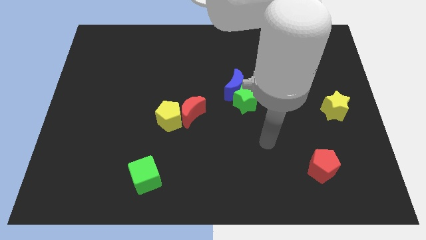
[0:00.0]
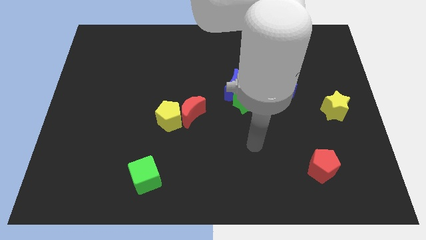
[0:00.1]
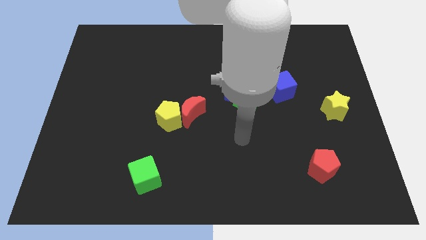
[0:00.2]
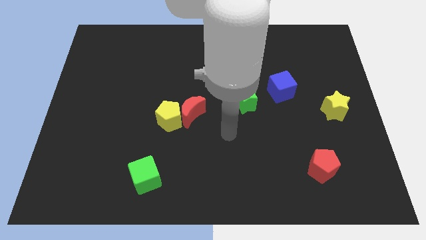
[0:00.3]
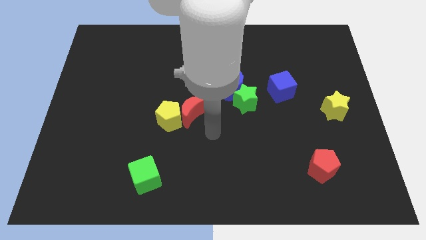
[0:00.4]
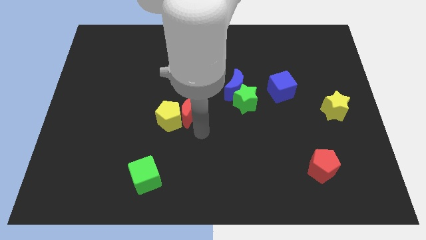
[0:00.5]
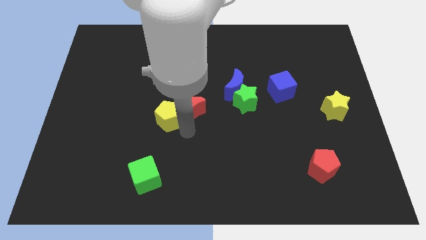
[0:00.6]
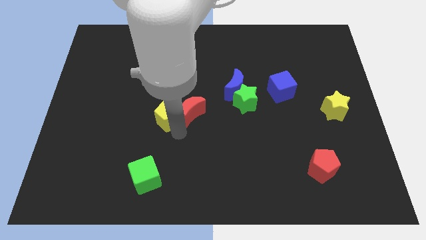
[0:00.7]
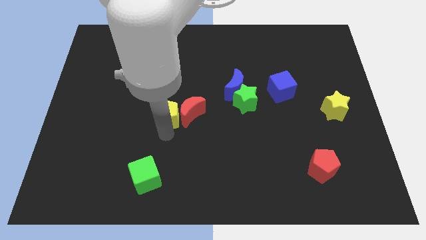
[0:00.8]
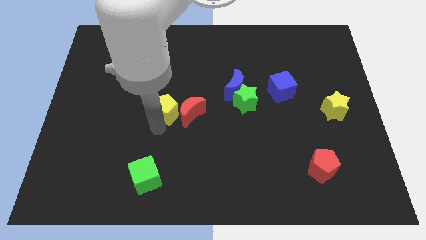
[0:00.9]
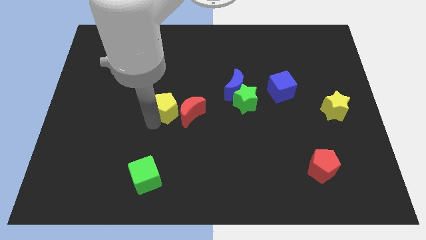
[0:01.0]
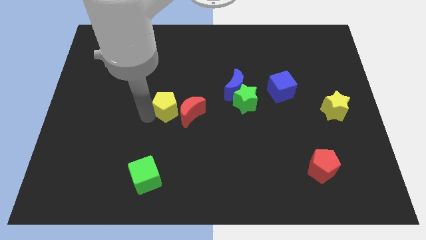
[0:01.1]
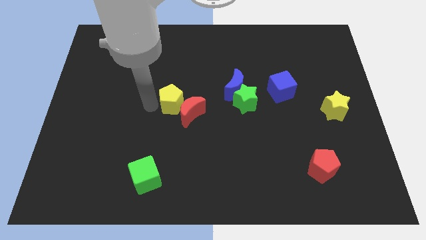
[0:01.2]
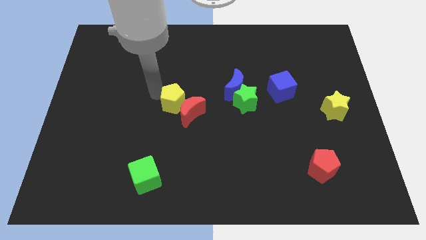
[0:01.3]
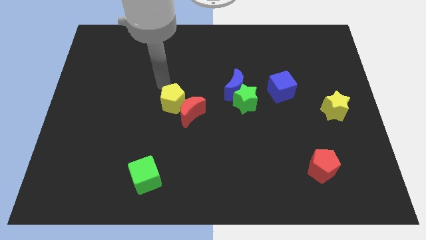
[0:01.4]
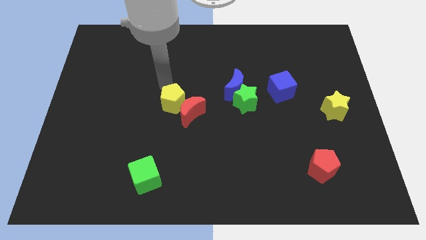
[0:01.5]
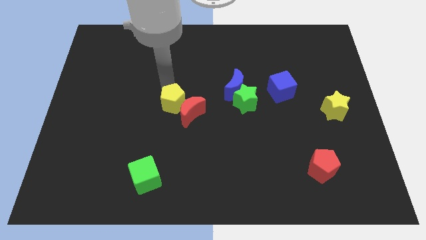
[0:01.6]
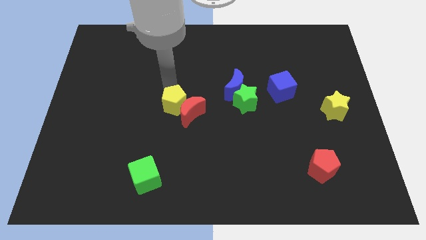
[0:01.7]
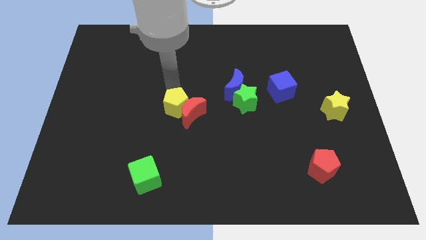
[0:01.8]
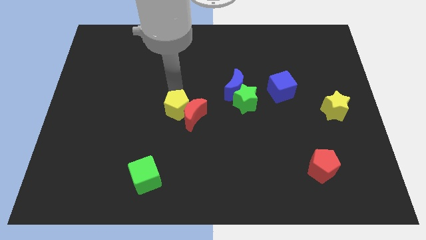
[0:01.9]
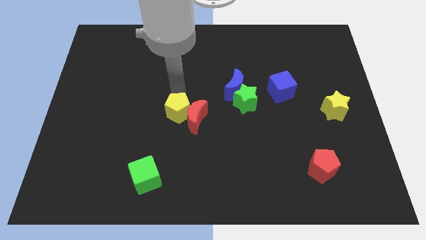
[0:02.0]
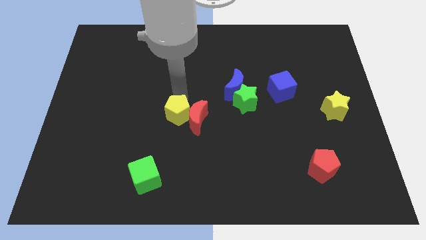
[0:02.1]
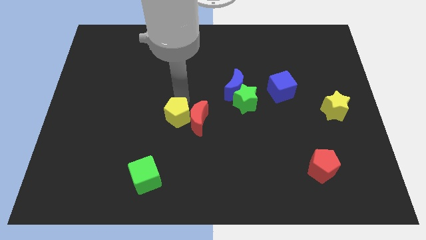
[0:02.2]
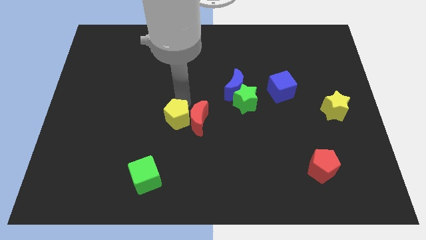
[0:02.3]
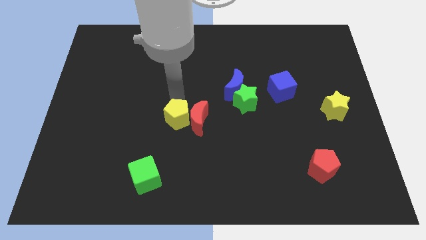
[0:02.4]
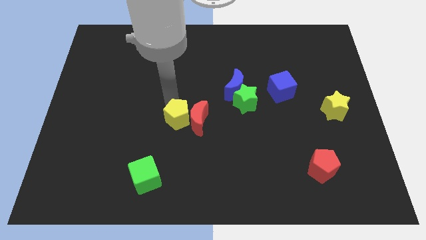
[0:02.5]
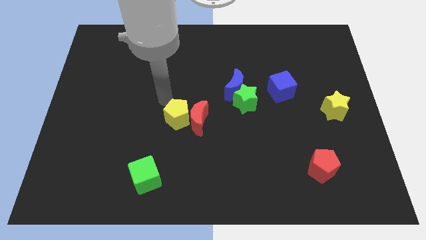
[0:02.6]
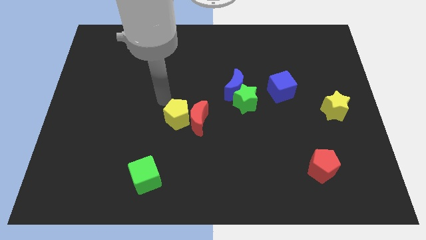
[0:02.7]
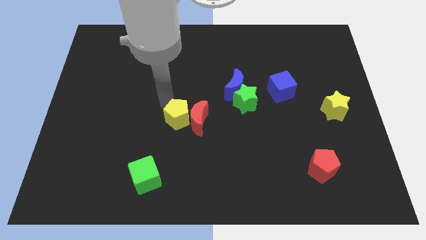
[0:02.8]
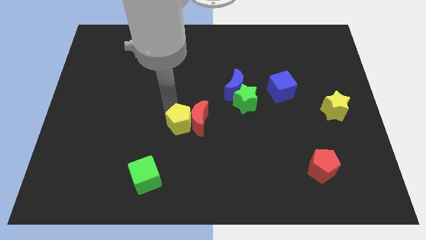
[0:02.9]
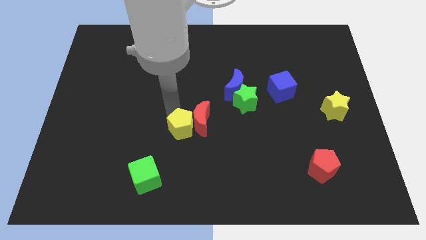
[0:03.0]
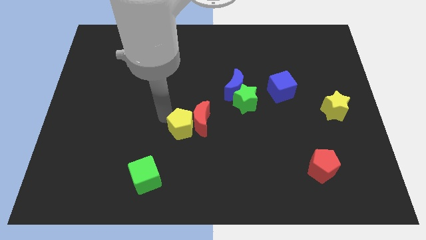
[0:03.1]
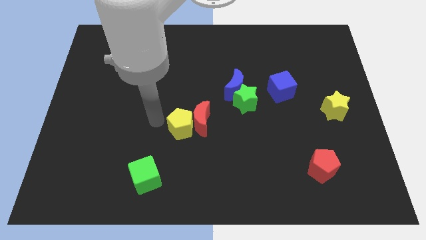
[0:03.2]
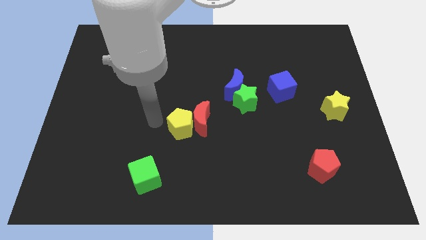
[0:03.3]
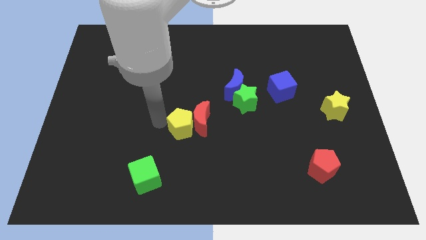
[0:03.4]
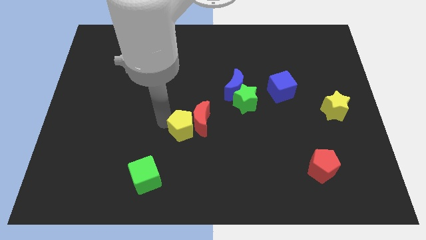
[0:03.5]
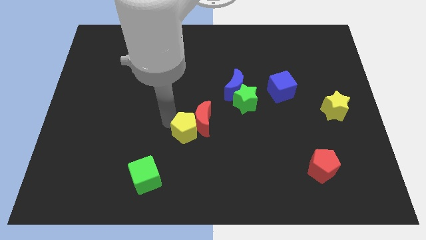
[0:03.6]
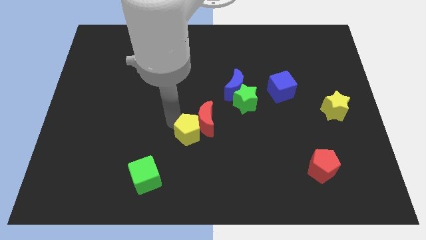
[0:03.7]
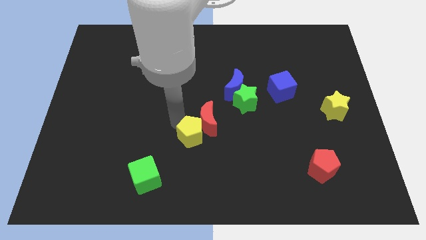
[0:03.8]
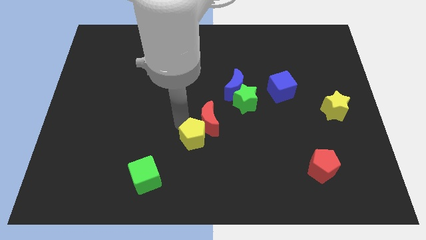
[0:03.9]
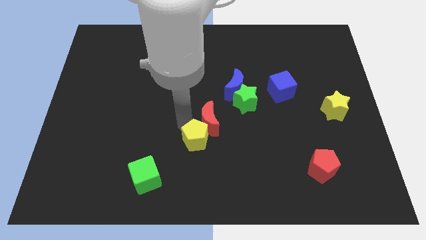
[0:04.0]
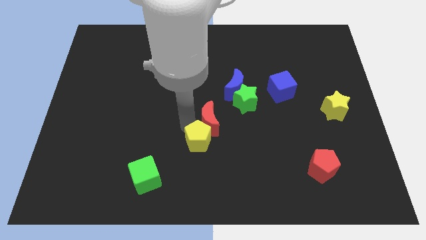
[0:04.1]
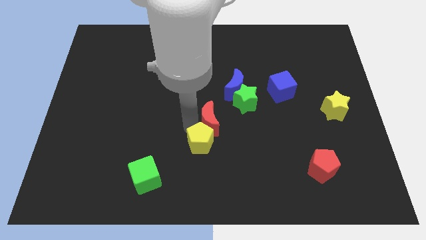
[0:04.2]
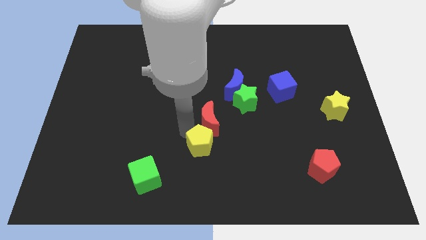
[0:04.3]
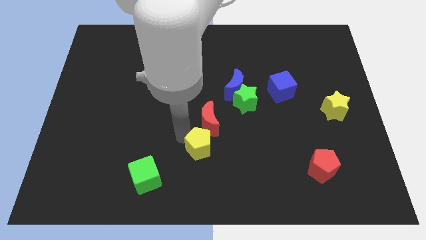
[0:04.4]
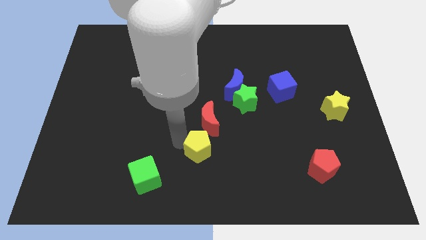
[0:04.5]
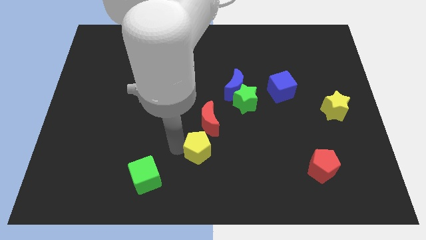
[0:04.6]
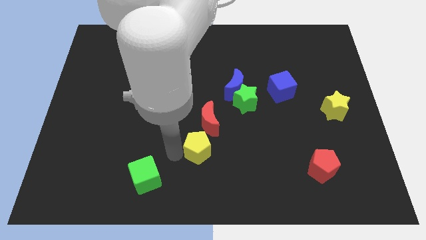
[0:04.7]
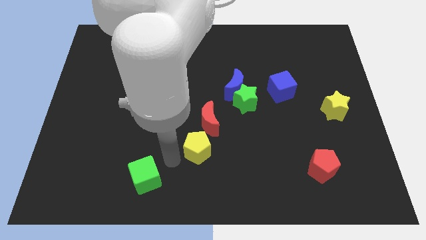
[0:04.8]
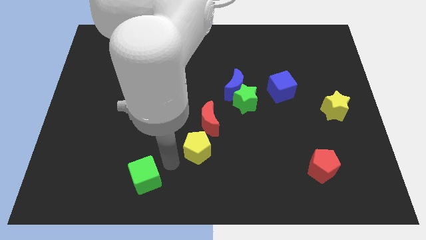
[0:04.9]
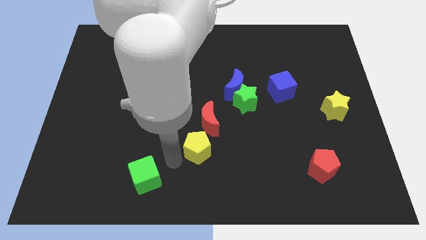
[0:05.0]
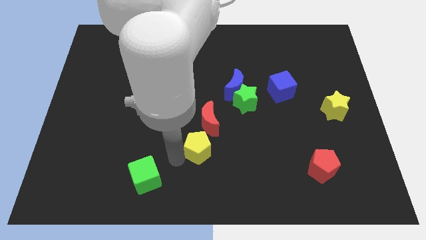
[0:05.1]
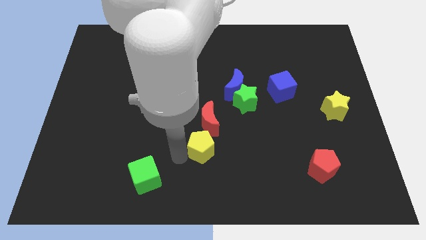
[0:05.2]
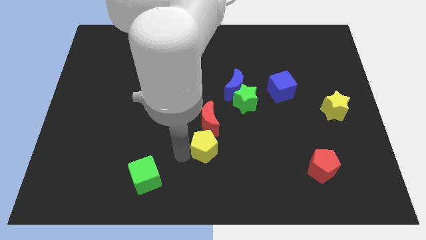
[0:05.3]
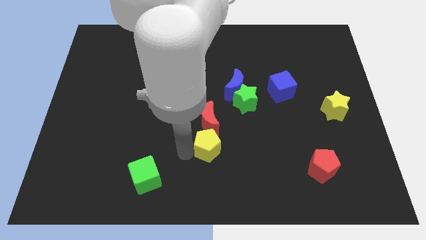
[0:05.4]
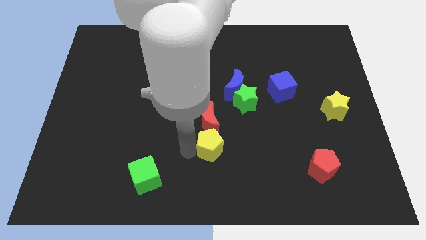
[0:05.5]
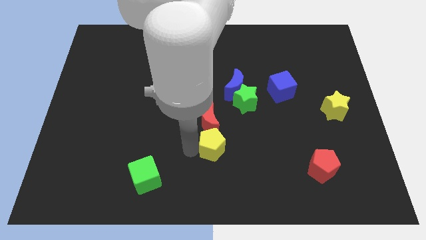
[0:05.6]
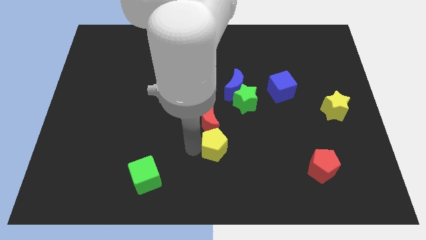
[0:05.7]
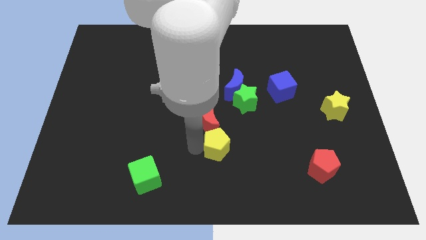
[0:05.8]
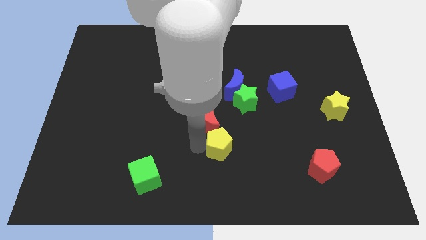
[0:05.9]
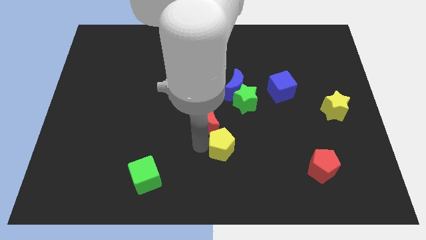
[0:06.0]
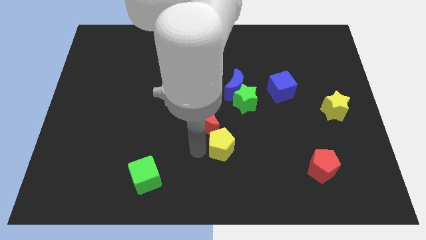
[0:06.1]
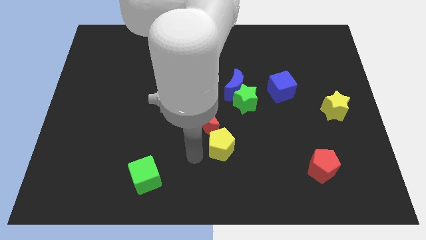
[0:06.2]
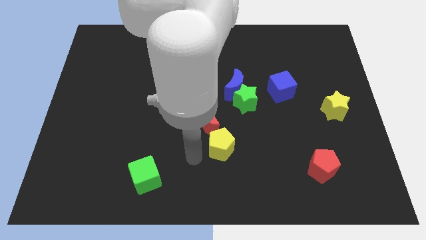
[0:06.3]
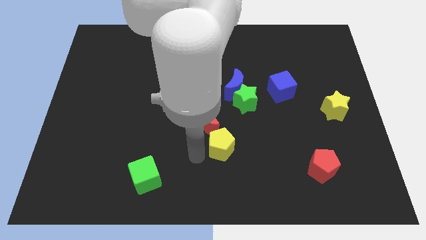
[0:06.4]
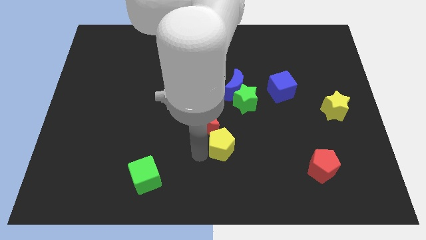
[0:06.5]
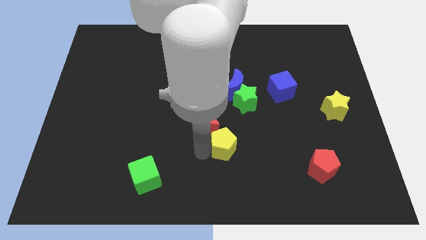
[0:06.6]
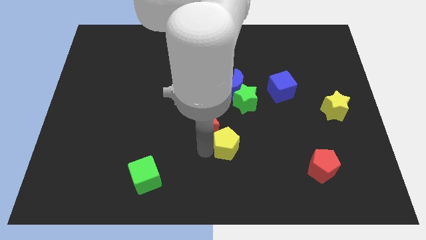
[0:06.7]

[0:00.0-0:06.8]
move the yellow pentagon to the bottom side of the green star

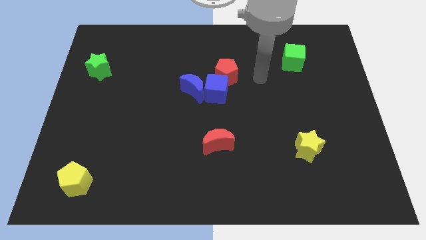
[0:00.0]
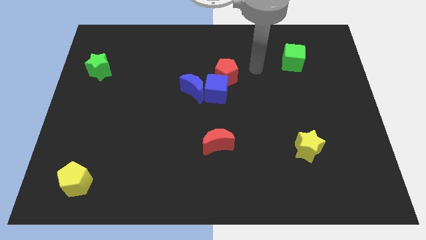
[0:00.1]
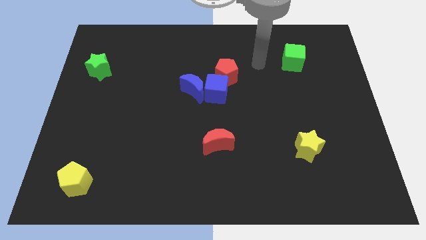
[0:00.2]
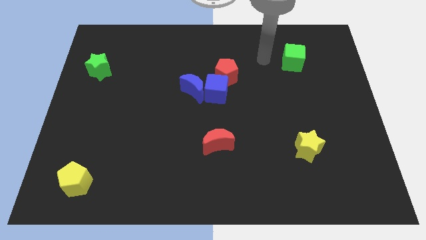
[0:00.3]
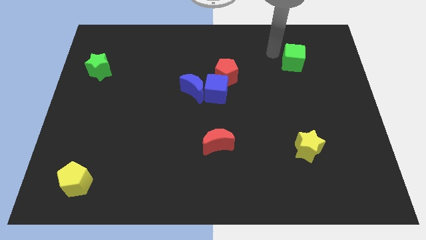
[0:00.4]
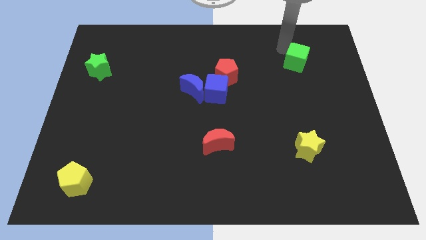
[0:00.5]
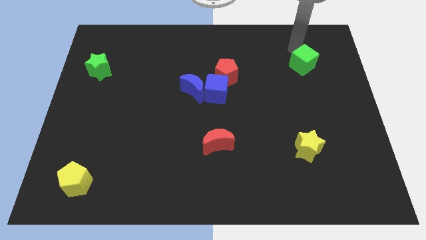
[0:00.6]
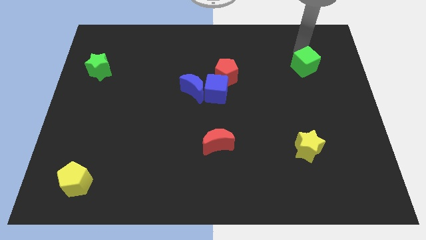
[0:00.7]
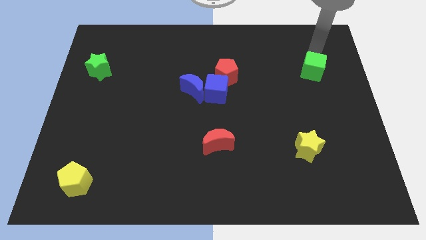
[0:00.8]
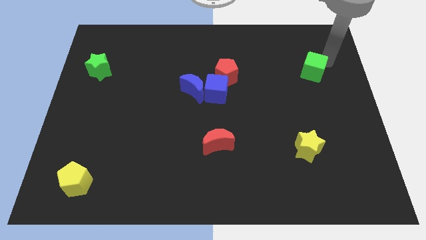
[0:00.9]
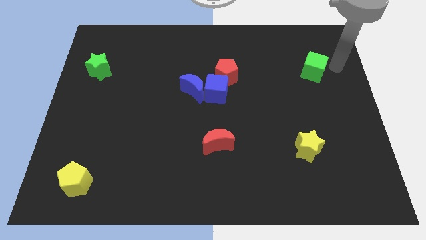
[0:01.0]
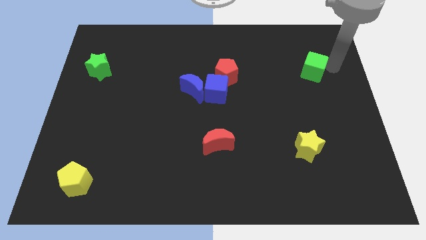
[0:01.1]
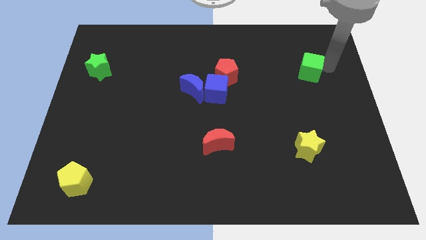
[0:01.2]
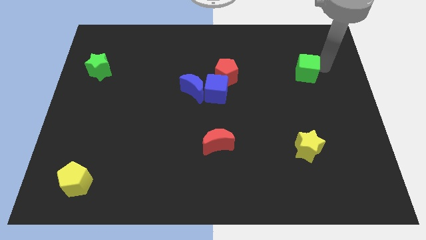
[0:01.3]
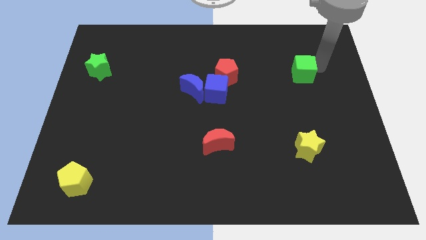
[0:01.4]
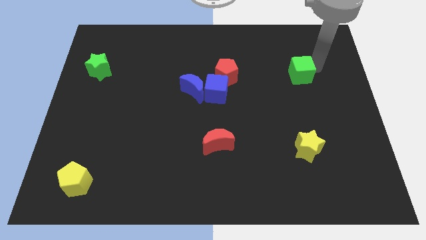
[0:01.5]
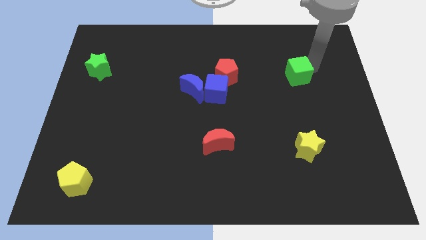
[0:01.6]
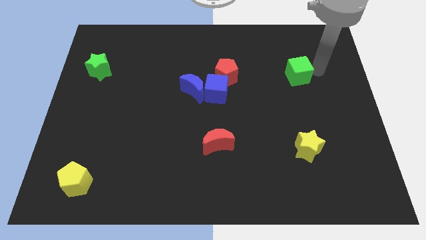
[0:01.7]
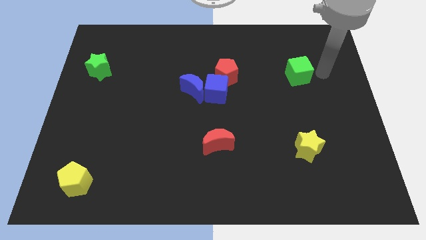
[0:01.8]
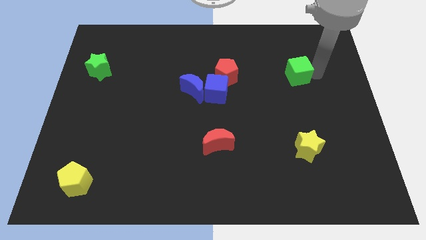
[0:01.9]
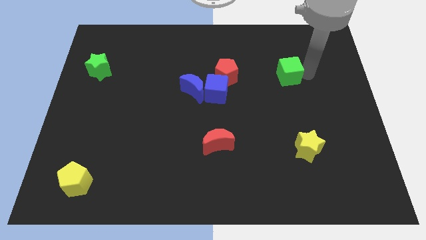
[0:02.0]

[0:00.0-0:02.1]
put the green cube to the right side of the red pentagon
